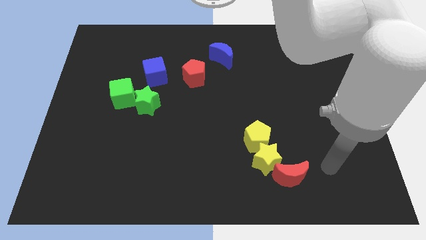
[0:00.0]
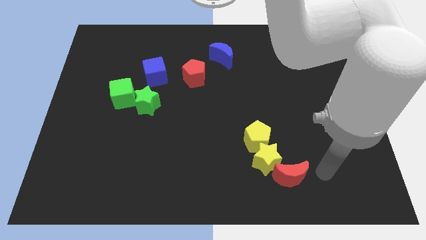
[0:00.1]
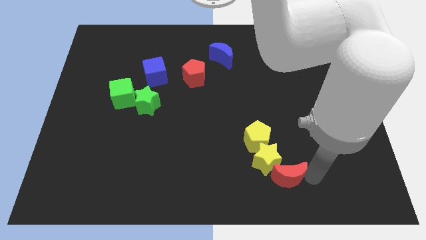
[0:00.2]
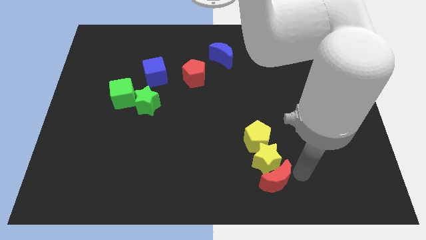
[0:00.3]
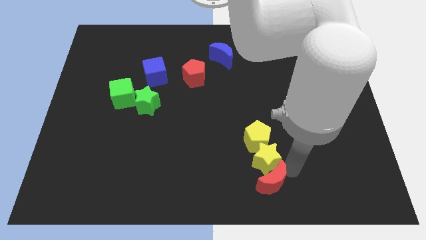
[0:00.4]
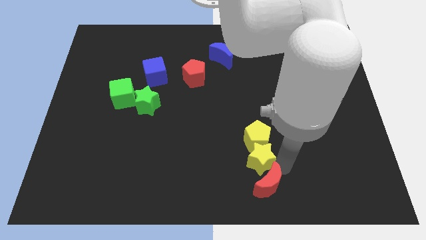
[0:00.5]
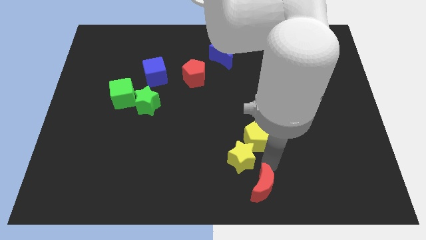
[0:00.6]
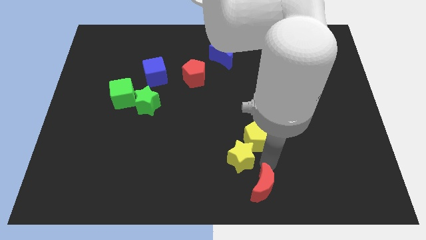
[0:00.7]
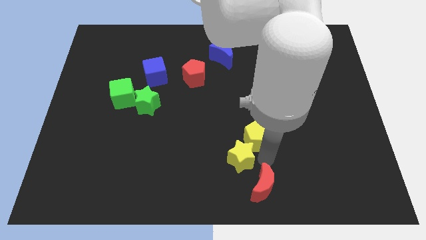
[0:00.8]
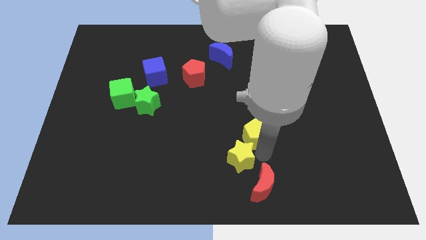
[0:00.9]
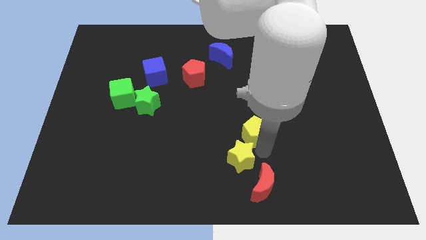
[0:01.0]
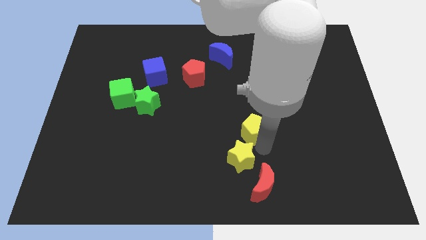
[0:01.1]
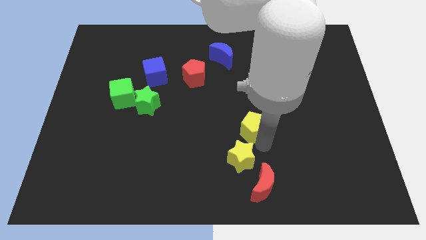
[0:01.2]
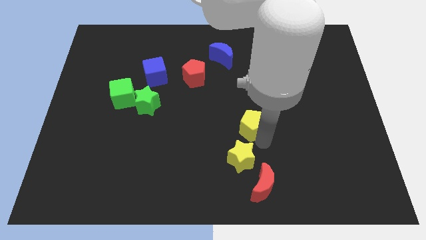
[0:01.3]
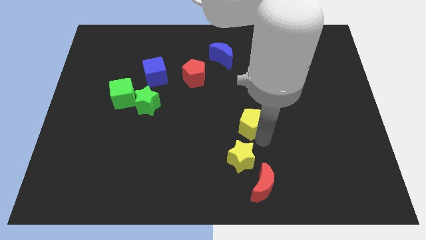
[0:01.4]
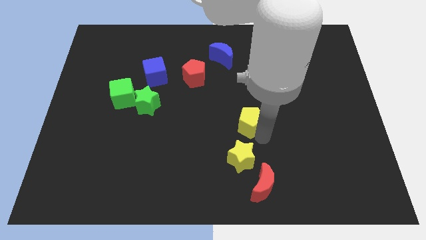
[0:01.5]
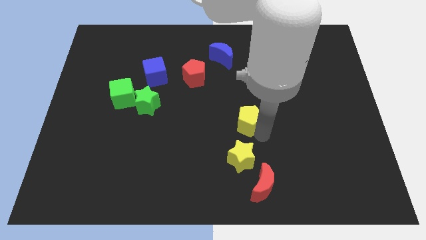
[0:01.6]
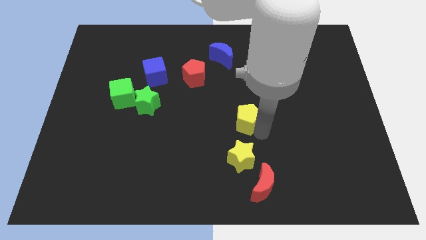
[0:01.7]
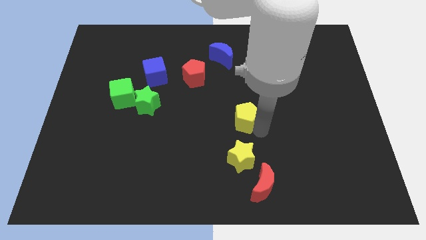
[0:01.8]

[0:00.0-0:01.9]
move the yellow pentagon away from the yellow star

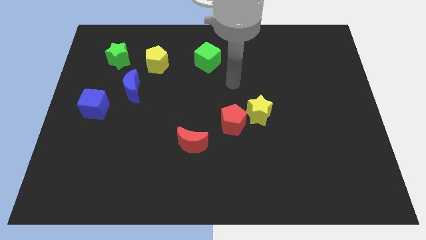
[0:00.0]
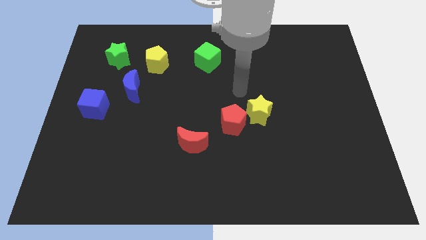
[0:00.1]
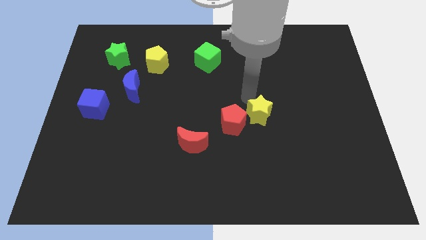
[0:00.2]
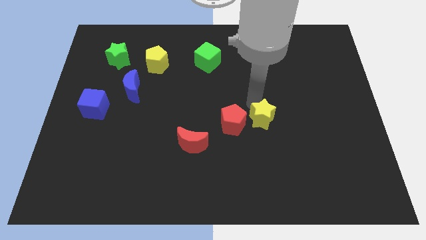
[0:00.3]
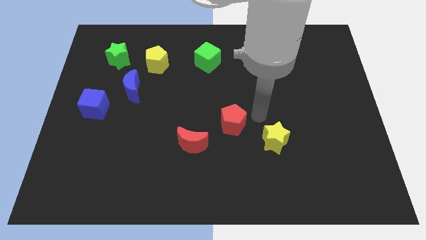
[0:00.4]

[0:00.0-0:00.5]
pull the red pentagon apart from the yellow star

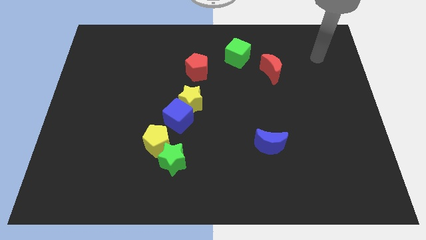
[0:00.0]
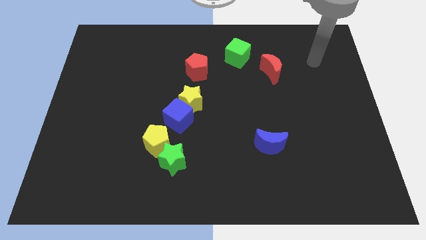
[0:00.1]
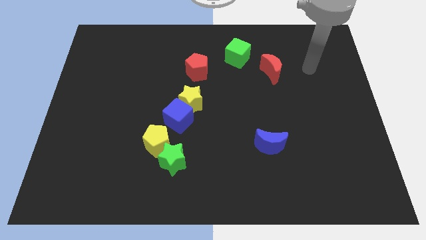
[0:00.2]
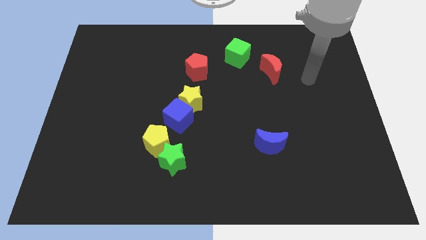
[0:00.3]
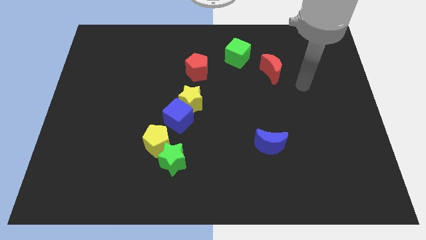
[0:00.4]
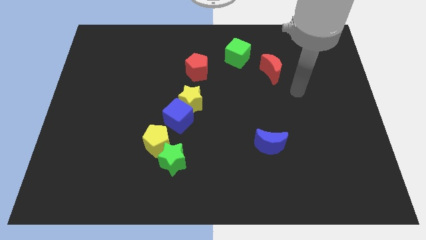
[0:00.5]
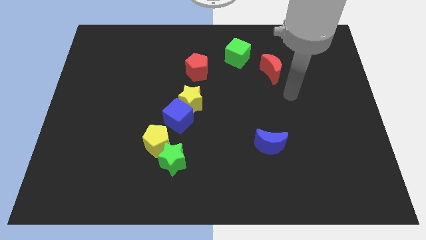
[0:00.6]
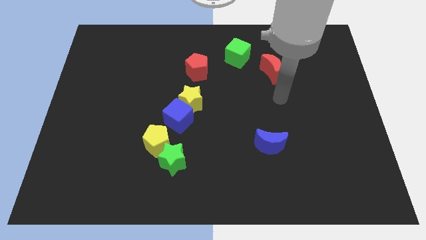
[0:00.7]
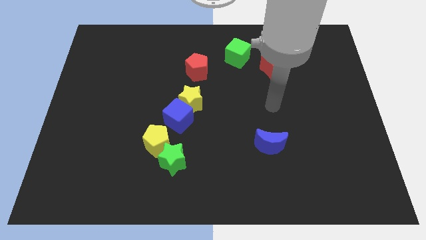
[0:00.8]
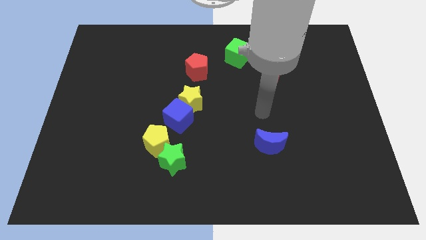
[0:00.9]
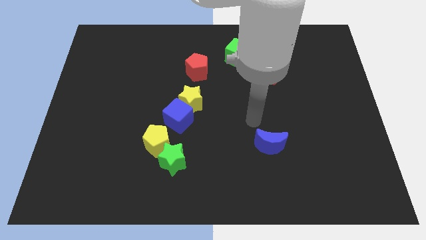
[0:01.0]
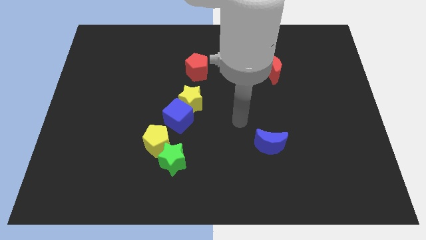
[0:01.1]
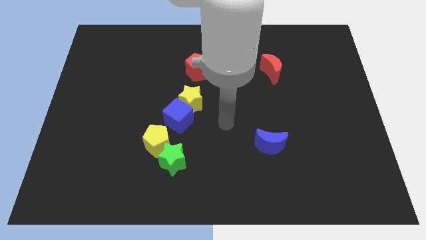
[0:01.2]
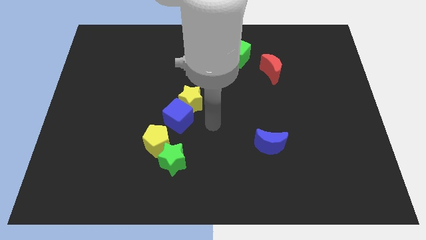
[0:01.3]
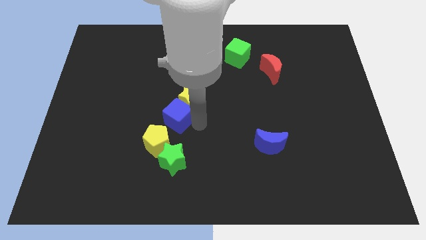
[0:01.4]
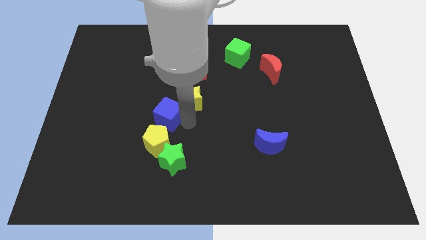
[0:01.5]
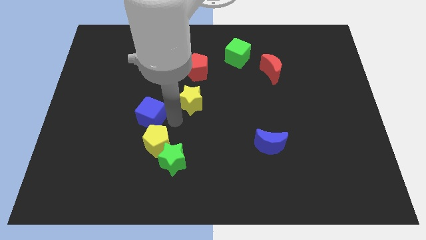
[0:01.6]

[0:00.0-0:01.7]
move the yellow star away from the blue cube

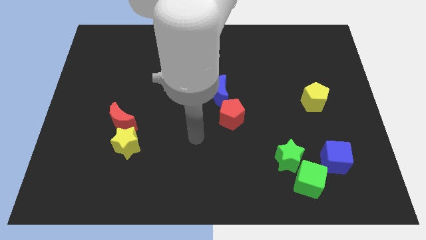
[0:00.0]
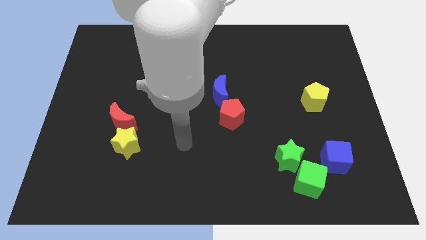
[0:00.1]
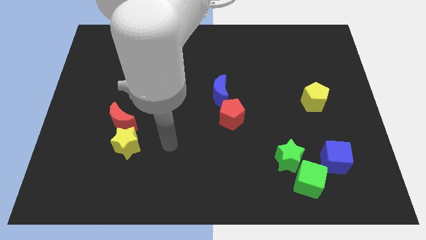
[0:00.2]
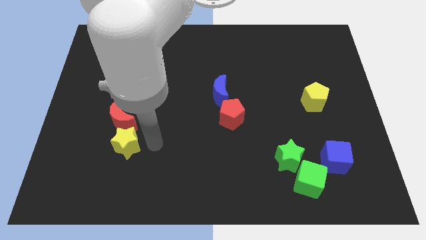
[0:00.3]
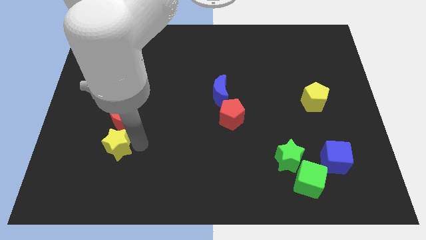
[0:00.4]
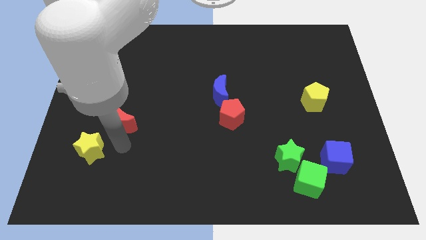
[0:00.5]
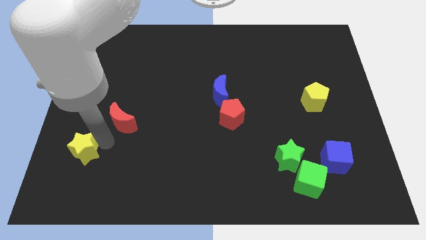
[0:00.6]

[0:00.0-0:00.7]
separate the red moon from the yellow star

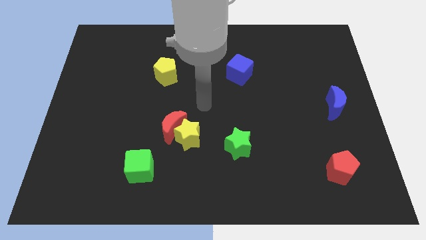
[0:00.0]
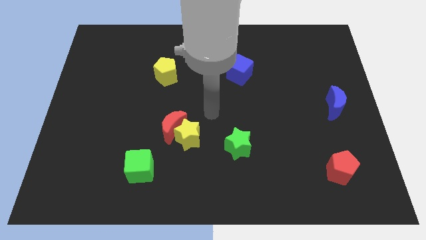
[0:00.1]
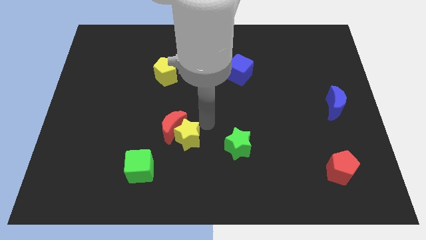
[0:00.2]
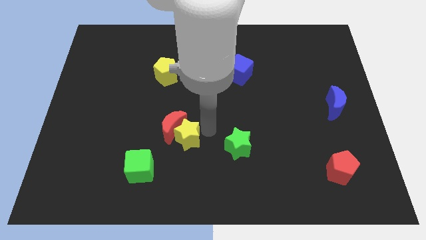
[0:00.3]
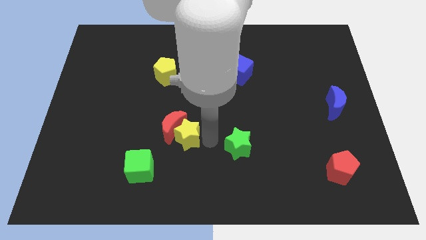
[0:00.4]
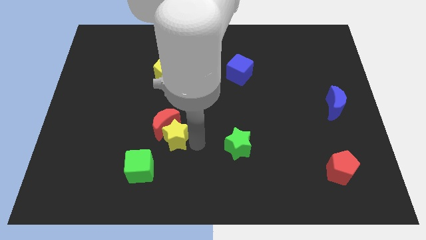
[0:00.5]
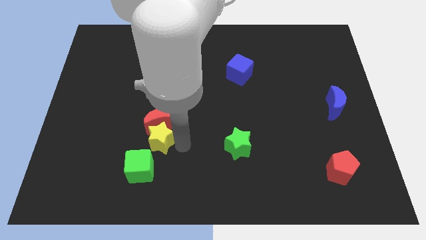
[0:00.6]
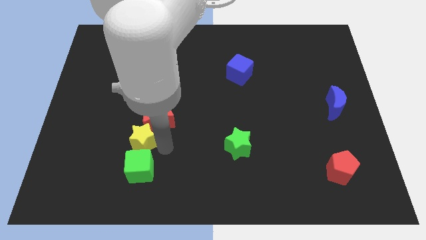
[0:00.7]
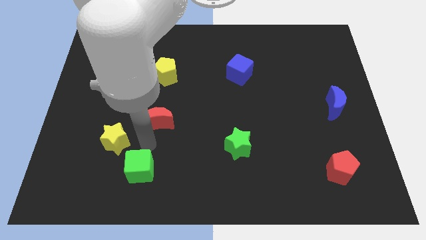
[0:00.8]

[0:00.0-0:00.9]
move the red moon away from the yellow star

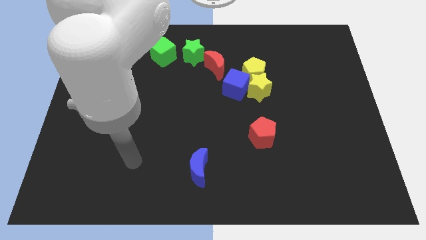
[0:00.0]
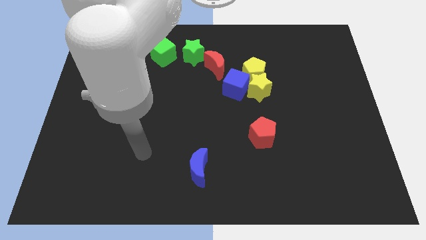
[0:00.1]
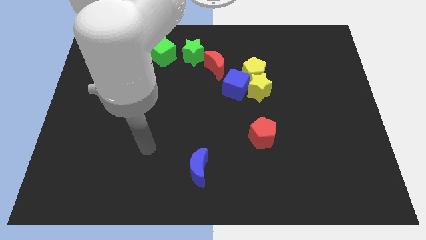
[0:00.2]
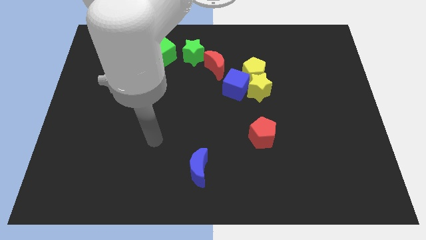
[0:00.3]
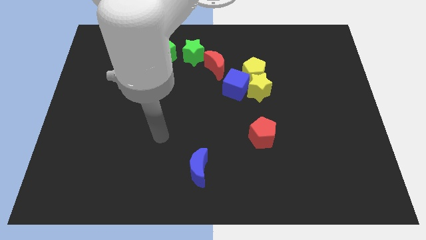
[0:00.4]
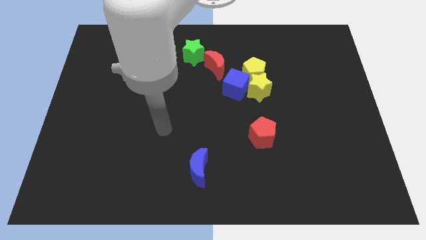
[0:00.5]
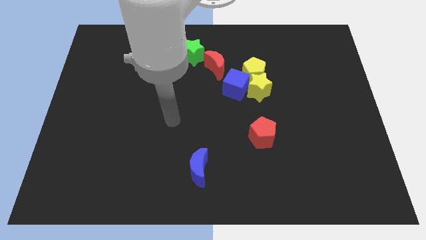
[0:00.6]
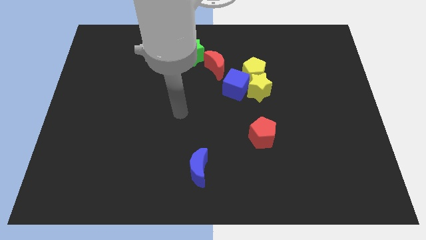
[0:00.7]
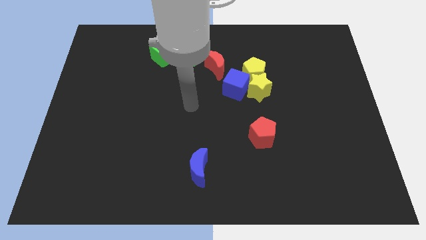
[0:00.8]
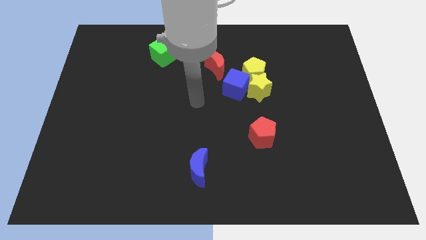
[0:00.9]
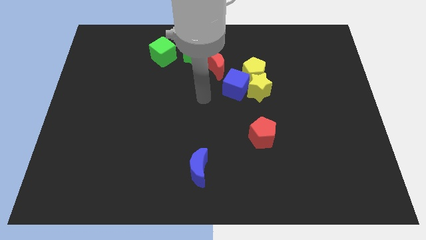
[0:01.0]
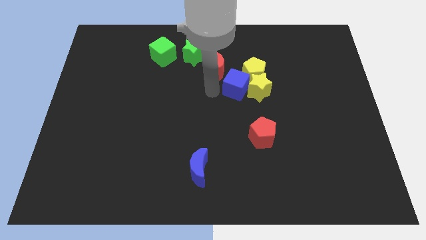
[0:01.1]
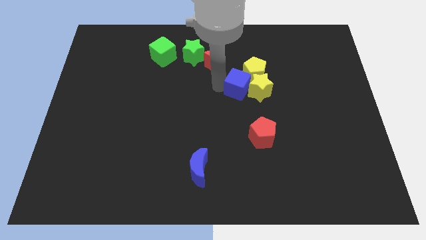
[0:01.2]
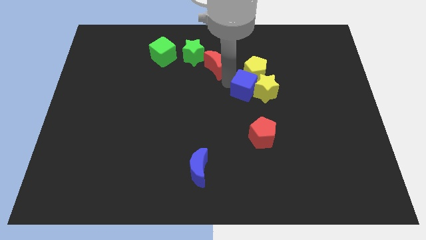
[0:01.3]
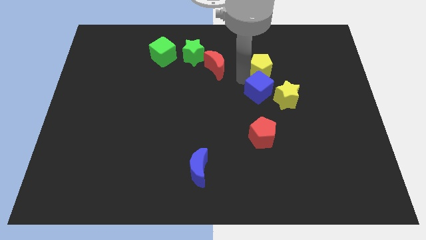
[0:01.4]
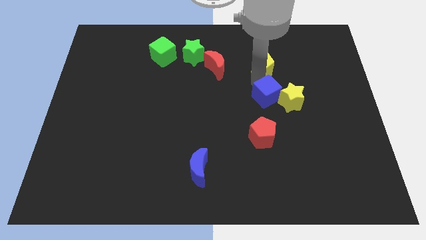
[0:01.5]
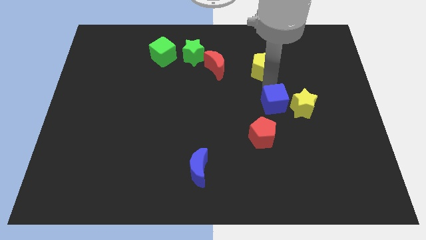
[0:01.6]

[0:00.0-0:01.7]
separate the yellow star from the yellow pentagon and blue cube

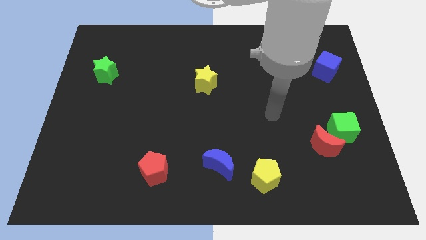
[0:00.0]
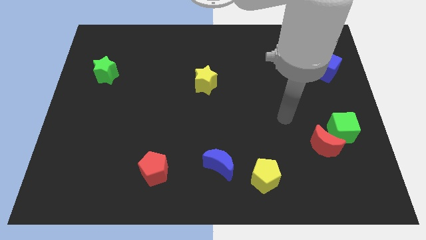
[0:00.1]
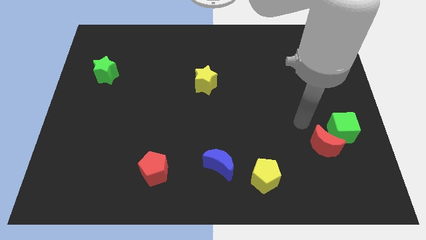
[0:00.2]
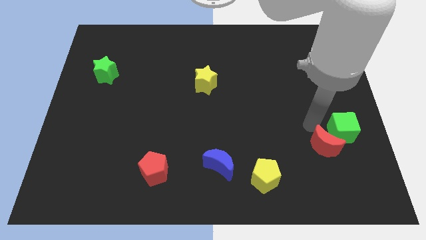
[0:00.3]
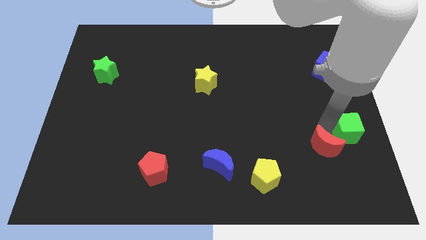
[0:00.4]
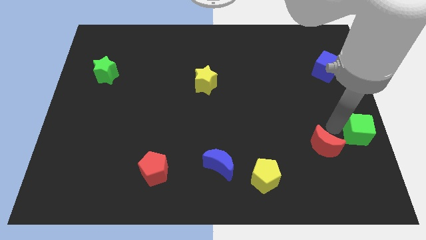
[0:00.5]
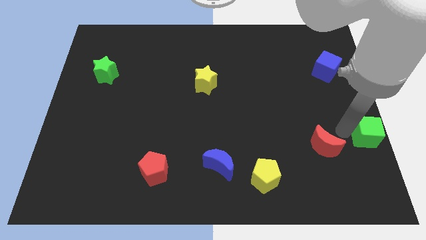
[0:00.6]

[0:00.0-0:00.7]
move the red moon away from the green cube

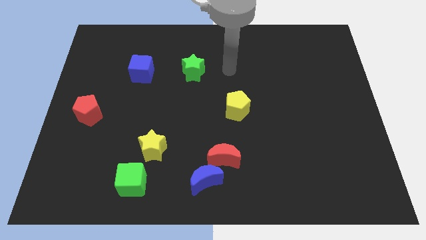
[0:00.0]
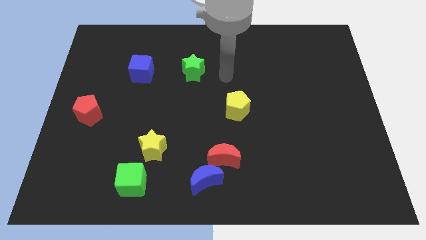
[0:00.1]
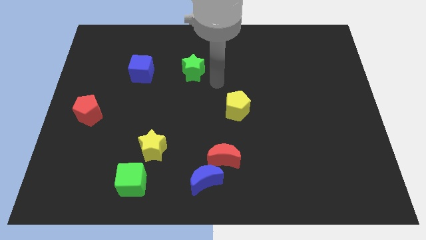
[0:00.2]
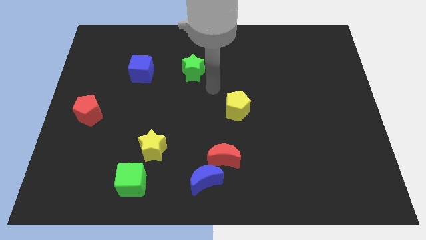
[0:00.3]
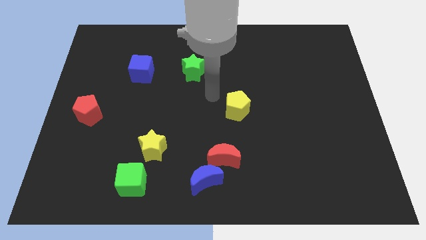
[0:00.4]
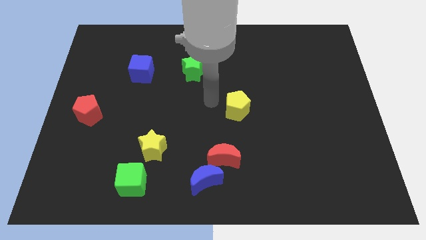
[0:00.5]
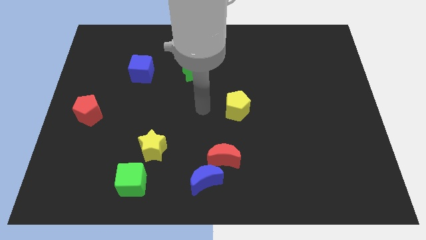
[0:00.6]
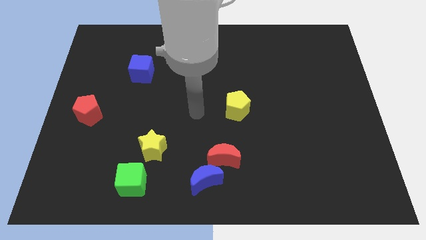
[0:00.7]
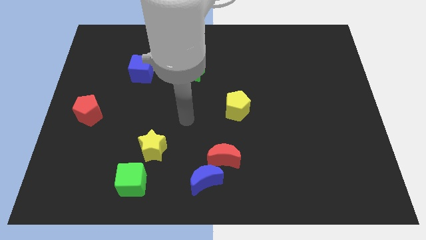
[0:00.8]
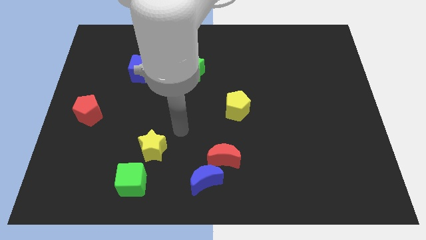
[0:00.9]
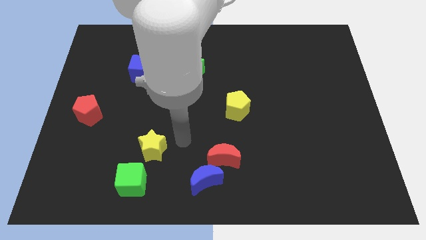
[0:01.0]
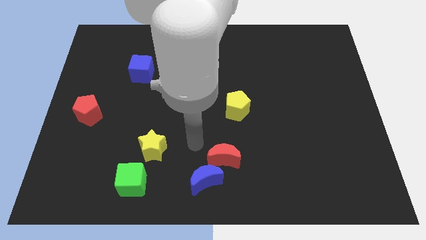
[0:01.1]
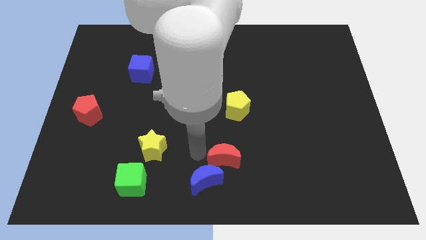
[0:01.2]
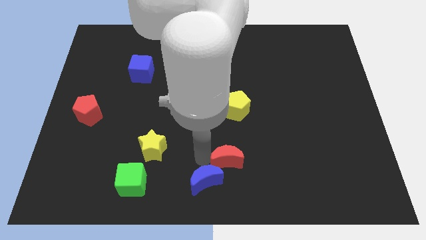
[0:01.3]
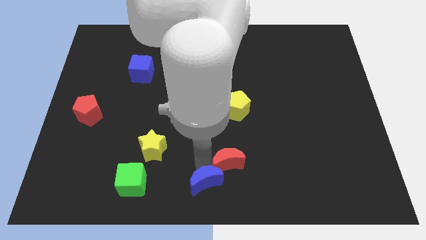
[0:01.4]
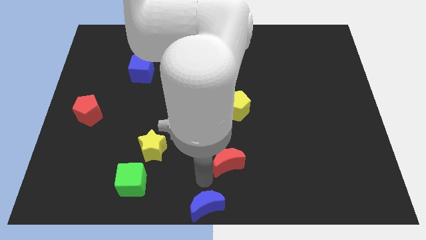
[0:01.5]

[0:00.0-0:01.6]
pull the red moon apart from the blue moon
